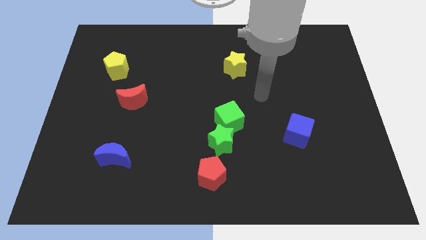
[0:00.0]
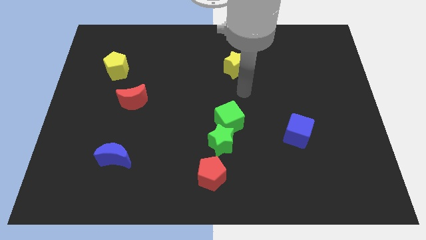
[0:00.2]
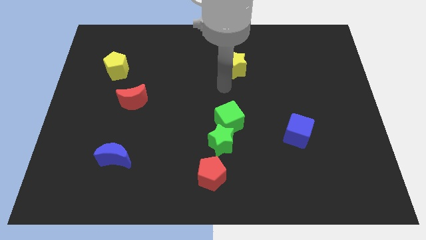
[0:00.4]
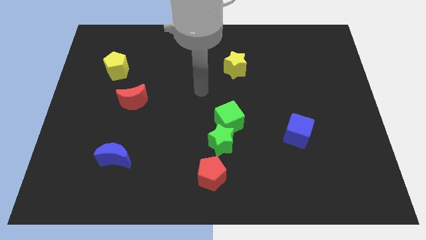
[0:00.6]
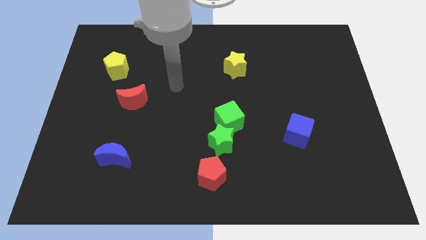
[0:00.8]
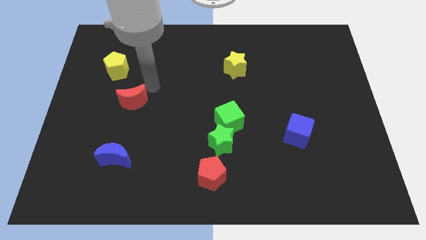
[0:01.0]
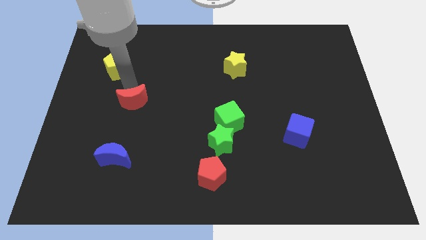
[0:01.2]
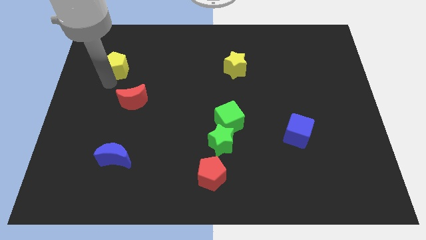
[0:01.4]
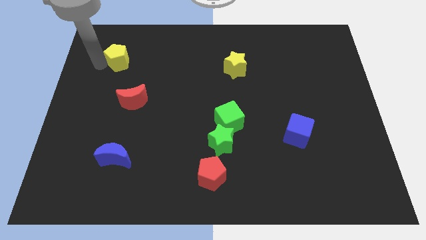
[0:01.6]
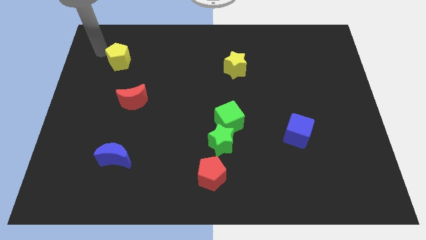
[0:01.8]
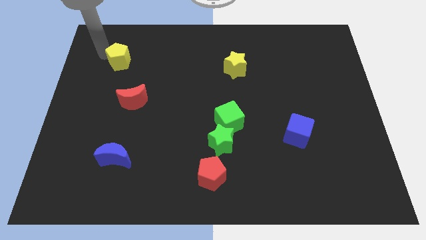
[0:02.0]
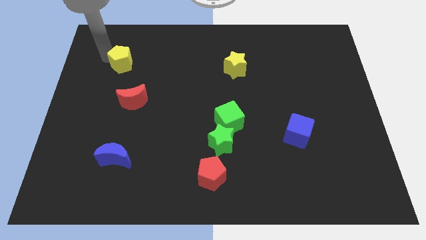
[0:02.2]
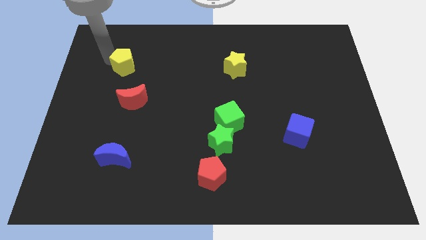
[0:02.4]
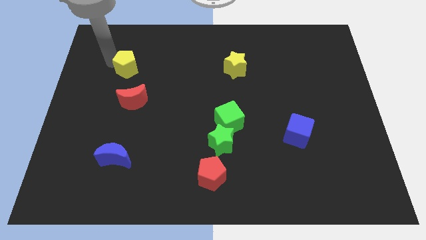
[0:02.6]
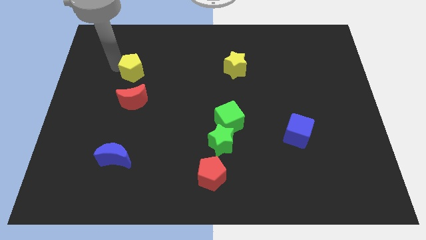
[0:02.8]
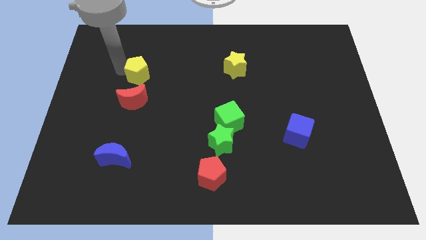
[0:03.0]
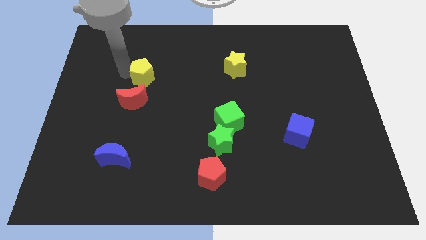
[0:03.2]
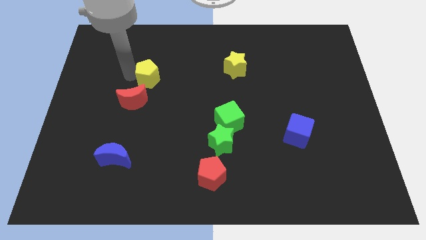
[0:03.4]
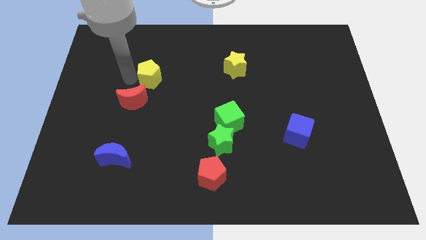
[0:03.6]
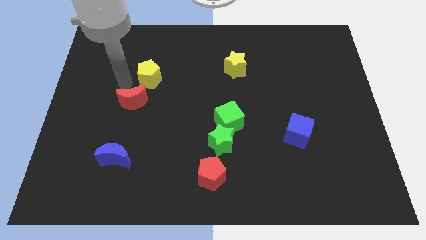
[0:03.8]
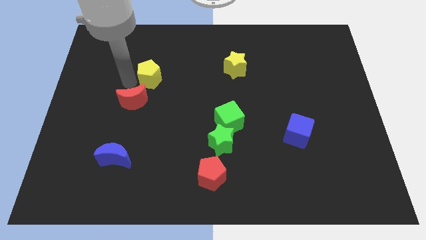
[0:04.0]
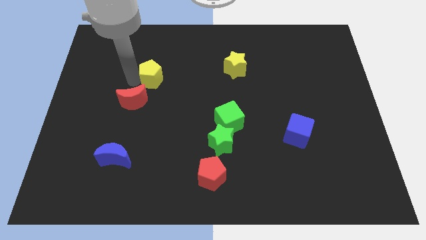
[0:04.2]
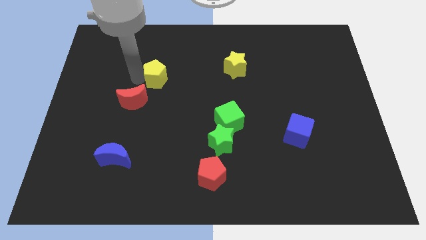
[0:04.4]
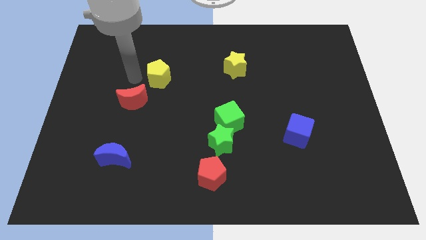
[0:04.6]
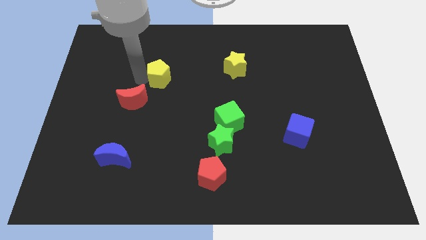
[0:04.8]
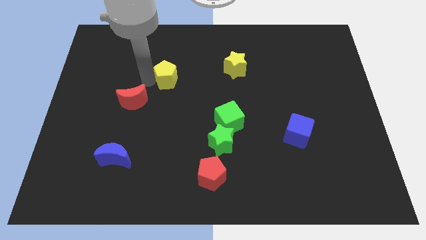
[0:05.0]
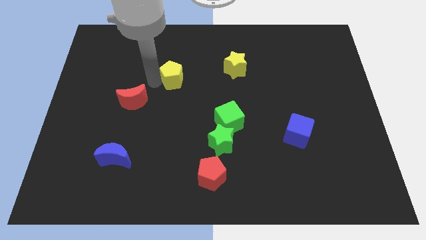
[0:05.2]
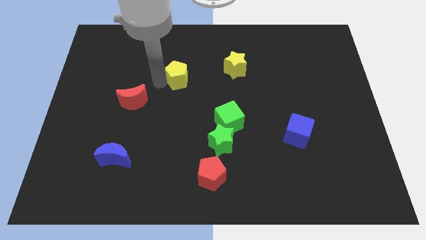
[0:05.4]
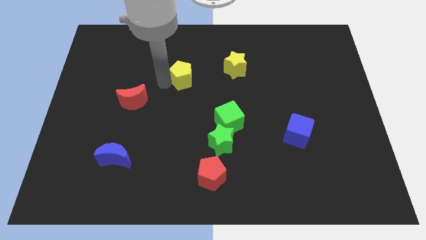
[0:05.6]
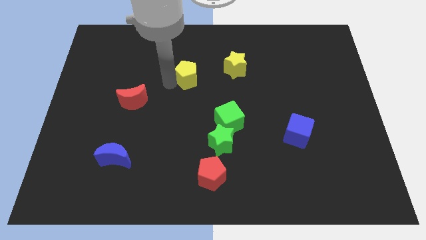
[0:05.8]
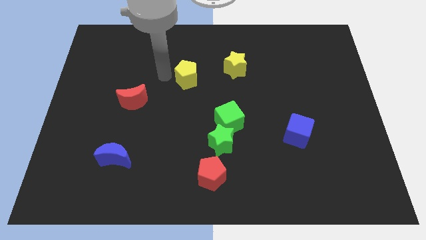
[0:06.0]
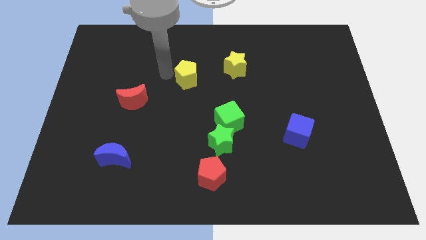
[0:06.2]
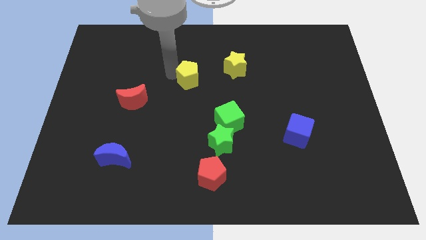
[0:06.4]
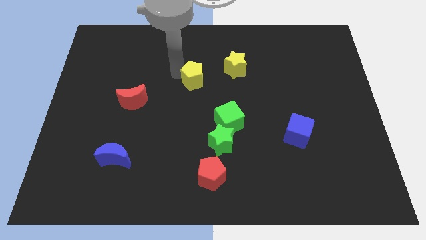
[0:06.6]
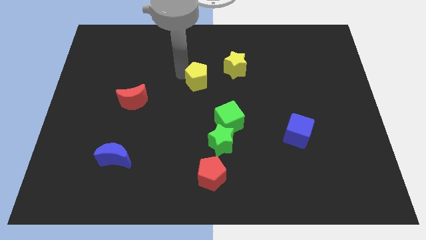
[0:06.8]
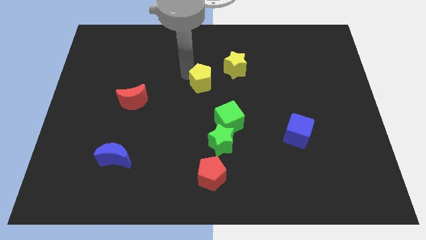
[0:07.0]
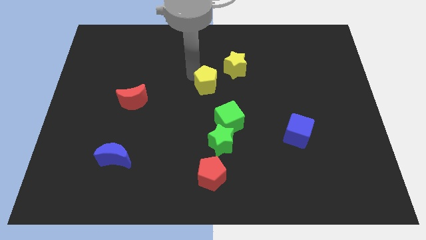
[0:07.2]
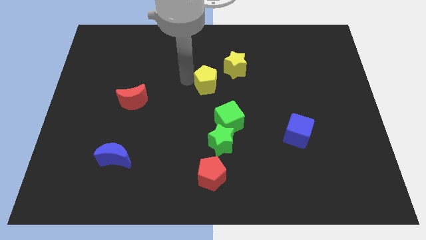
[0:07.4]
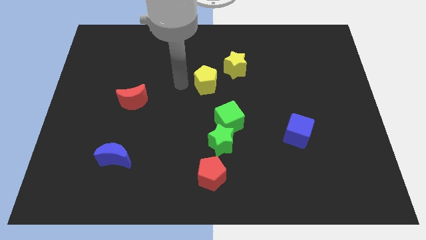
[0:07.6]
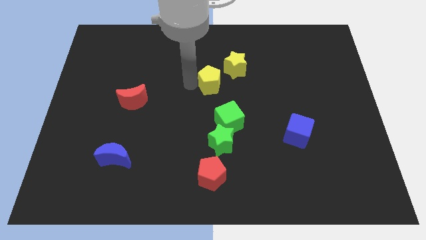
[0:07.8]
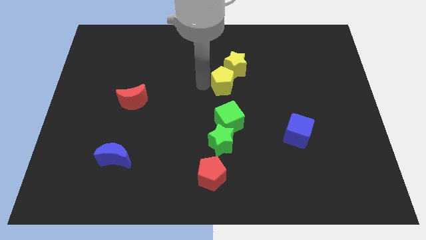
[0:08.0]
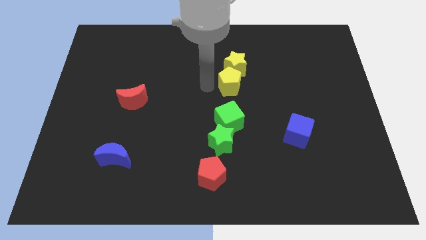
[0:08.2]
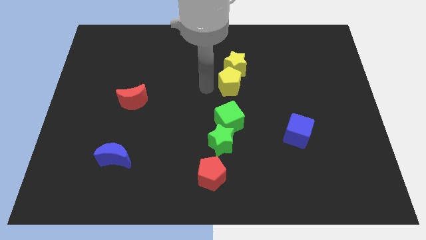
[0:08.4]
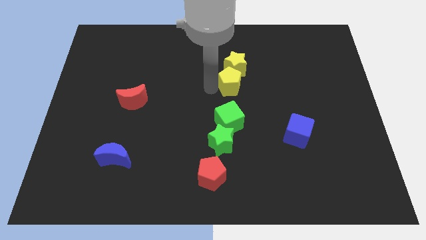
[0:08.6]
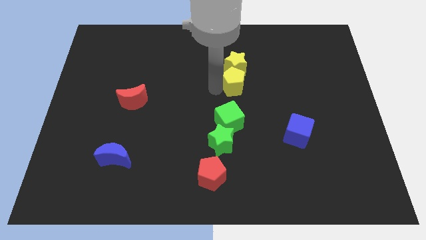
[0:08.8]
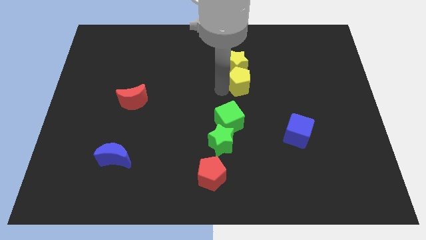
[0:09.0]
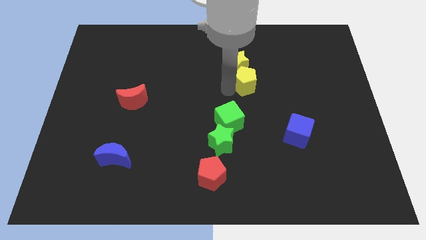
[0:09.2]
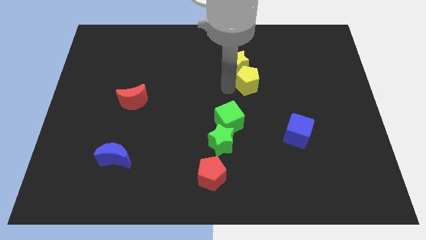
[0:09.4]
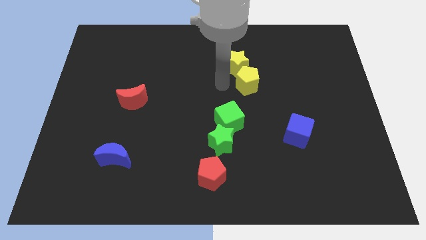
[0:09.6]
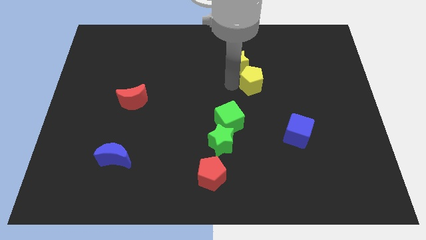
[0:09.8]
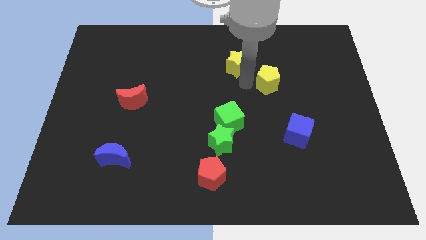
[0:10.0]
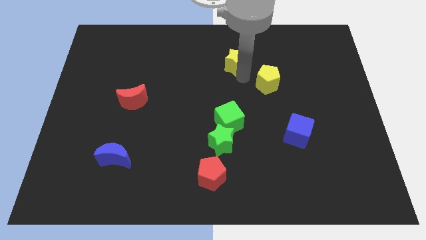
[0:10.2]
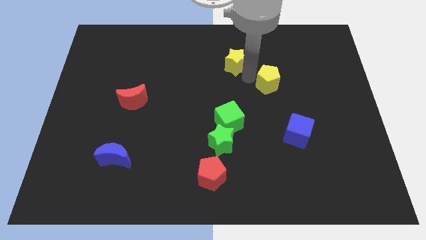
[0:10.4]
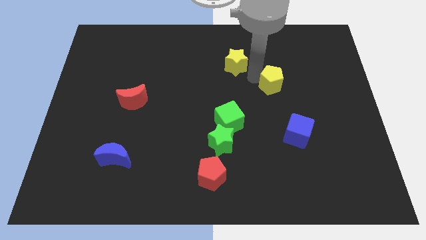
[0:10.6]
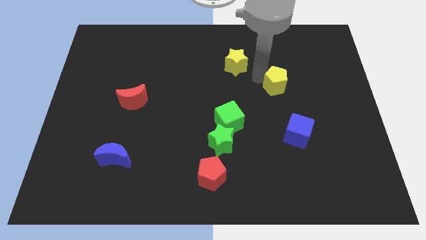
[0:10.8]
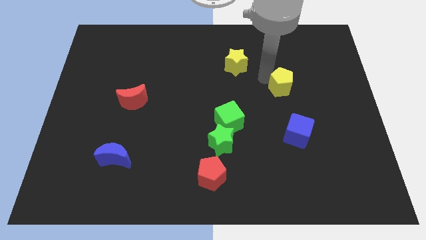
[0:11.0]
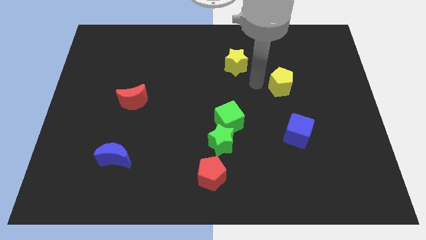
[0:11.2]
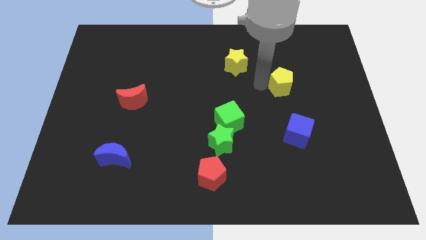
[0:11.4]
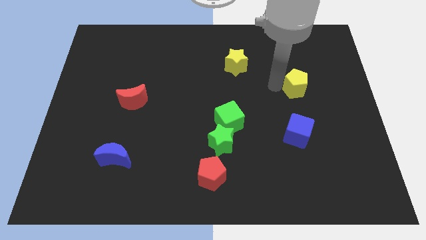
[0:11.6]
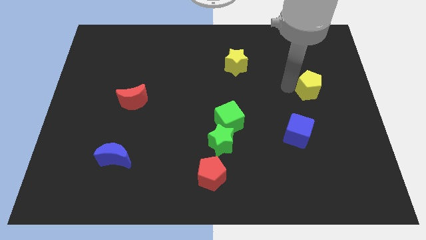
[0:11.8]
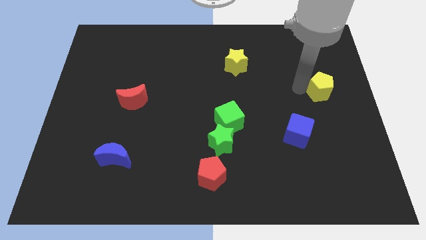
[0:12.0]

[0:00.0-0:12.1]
slide the yellow pentagon to the center right

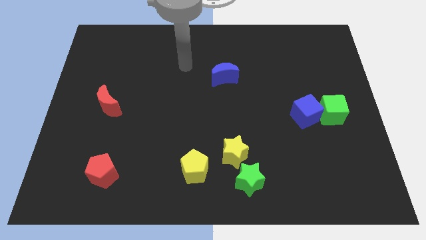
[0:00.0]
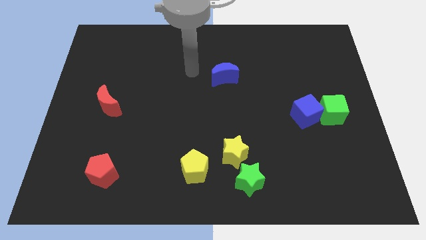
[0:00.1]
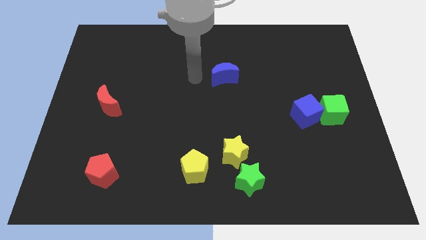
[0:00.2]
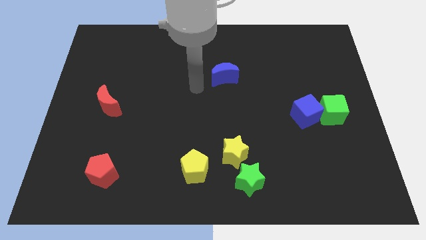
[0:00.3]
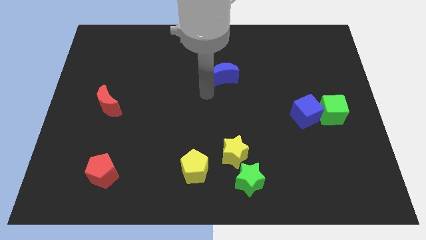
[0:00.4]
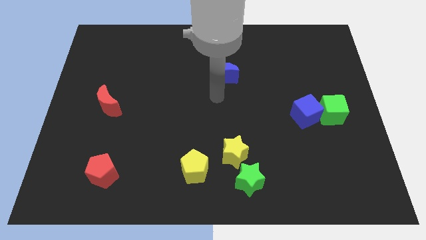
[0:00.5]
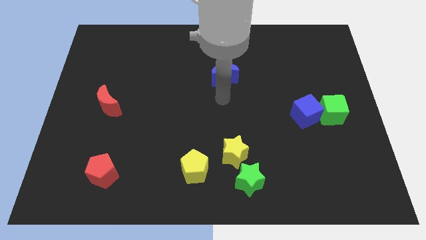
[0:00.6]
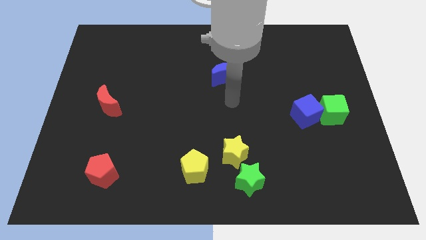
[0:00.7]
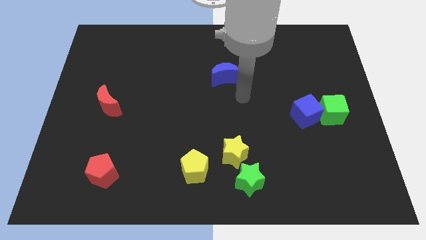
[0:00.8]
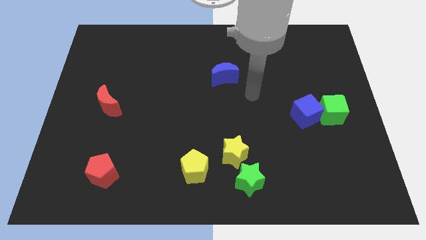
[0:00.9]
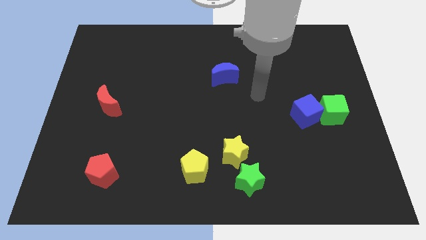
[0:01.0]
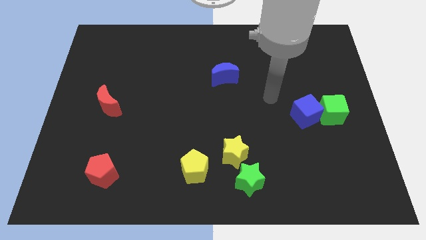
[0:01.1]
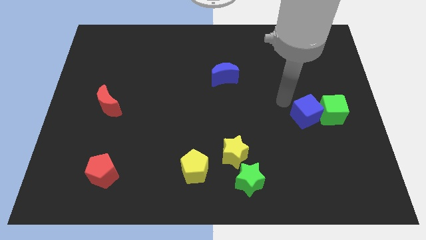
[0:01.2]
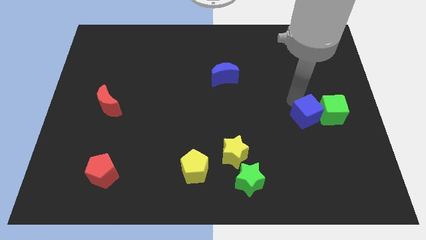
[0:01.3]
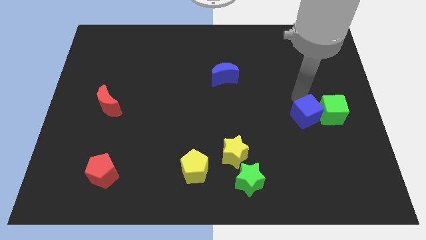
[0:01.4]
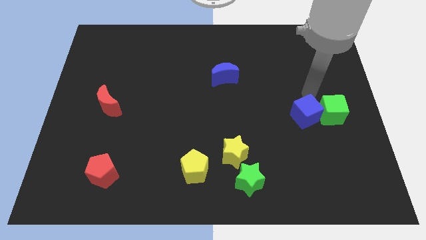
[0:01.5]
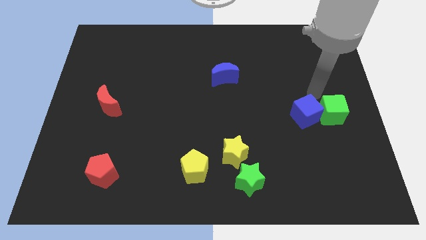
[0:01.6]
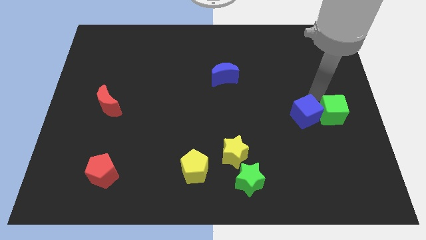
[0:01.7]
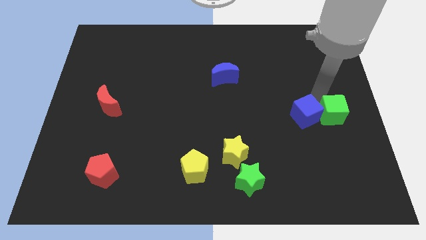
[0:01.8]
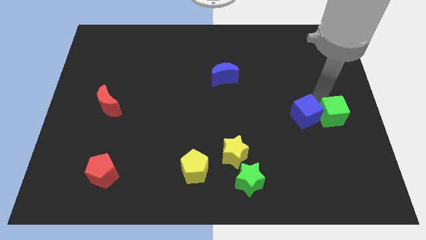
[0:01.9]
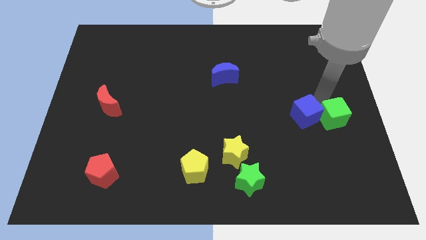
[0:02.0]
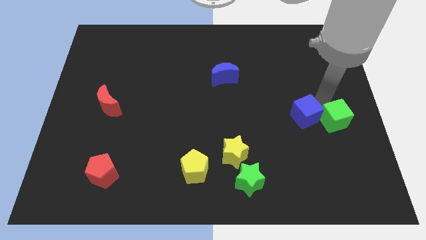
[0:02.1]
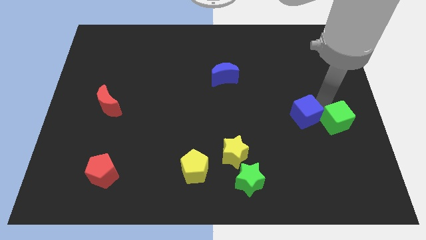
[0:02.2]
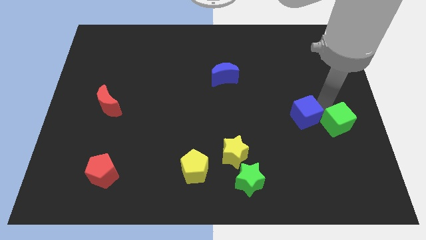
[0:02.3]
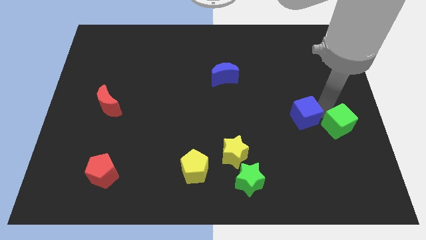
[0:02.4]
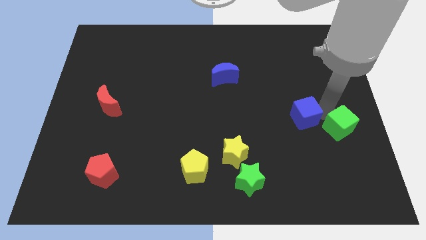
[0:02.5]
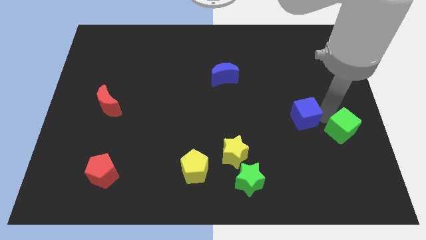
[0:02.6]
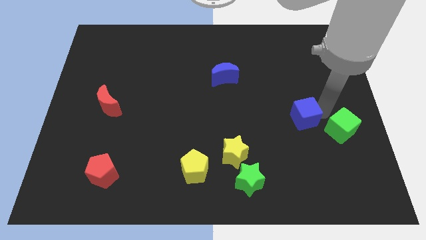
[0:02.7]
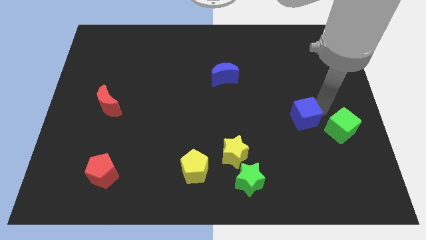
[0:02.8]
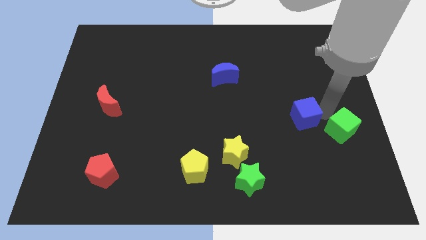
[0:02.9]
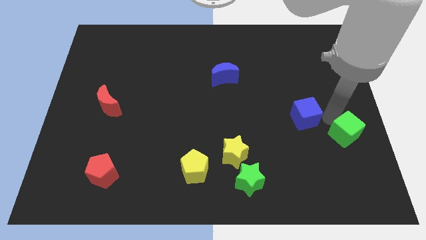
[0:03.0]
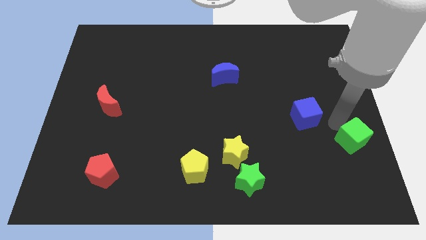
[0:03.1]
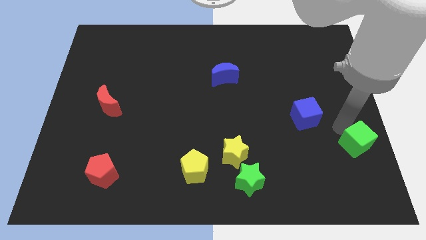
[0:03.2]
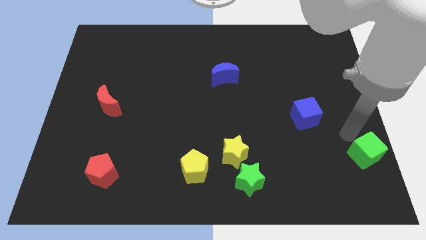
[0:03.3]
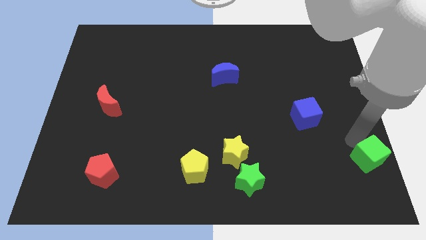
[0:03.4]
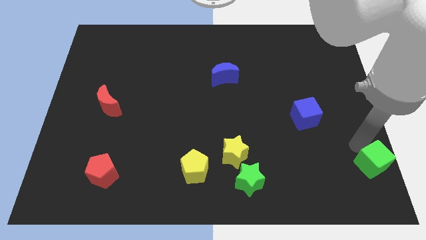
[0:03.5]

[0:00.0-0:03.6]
move the green cube to the bottom right
